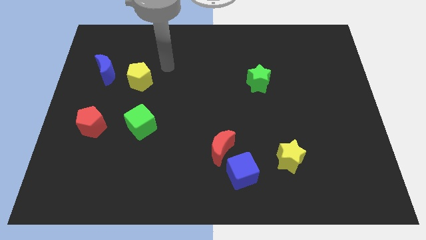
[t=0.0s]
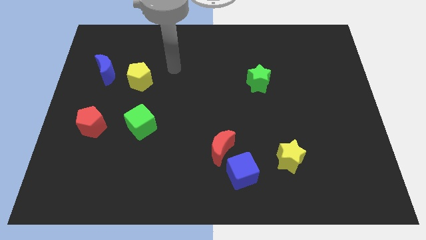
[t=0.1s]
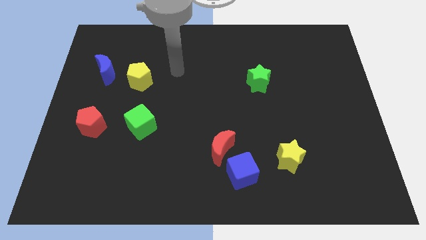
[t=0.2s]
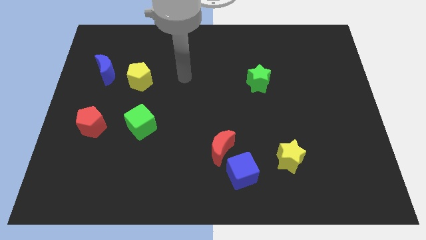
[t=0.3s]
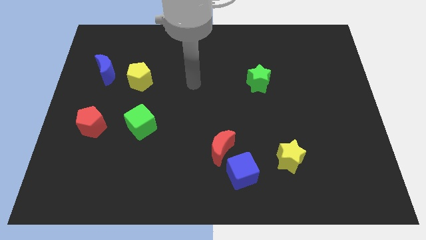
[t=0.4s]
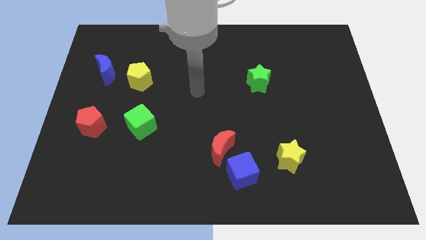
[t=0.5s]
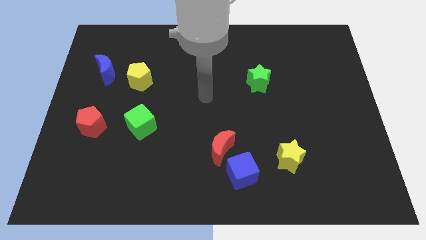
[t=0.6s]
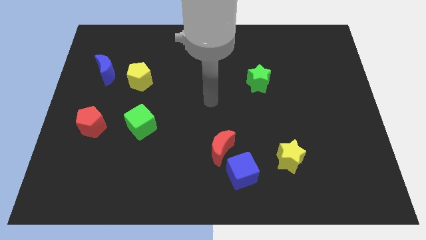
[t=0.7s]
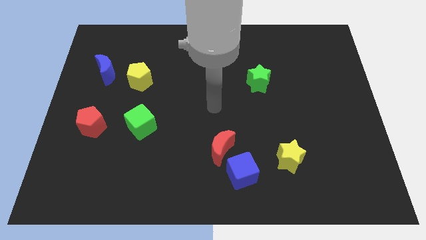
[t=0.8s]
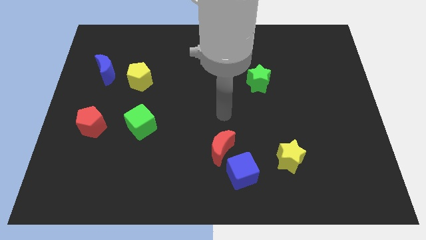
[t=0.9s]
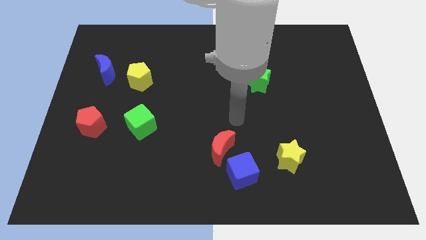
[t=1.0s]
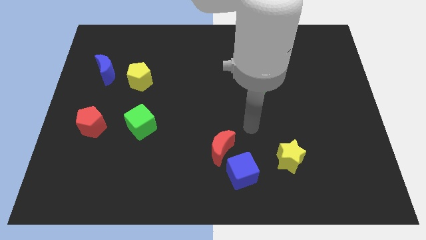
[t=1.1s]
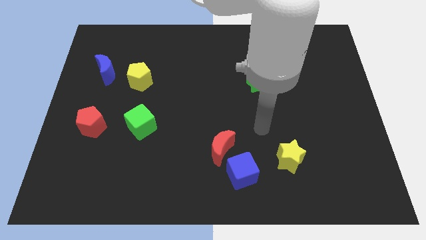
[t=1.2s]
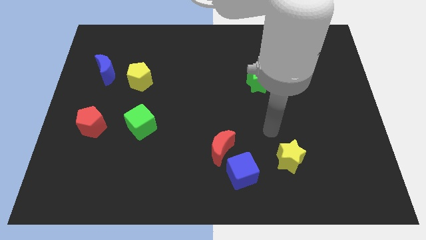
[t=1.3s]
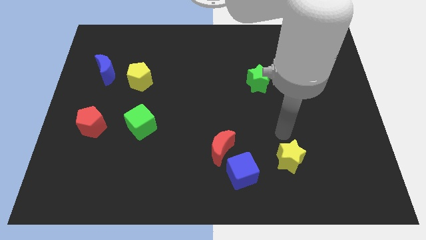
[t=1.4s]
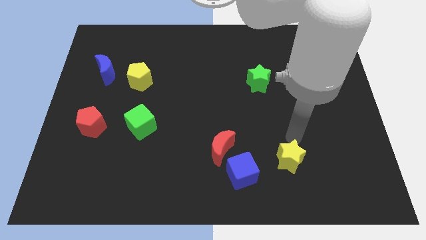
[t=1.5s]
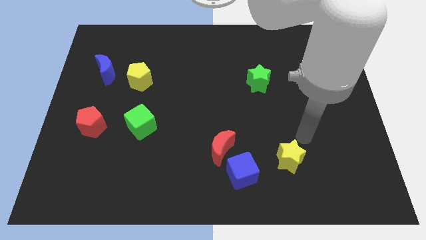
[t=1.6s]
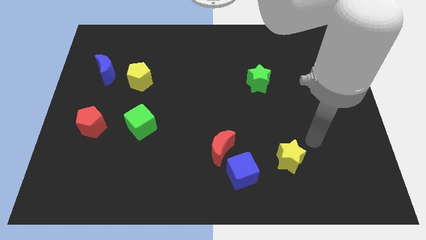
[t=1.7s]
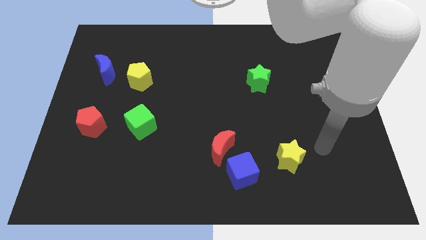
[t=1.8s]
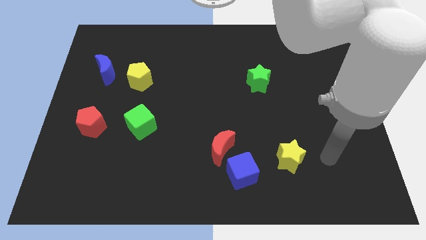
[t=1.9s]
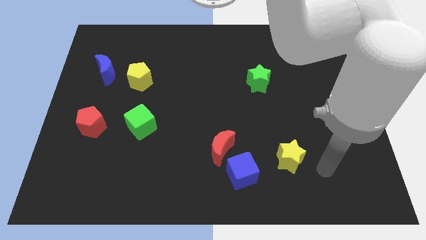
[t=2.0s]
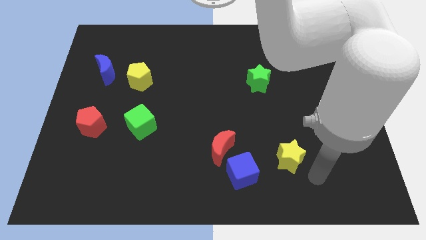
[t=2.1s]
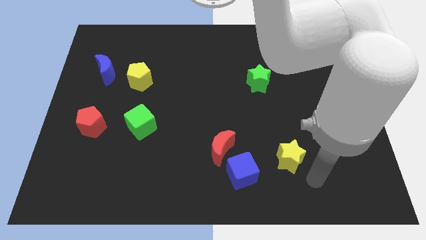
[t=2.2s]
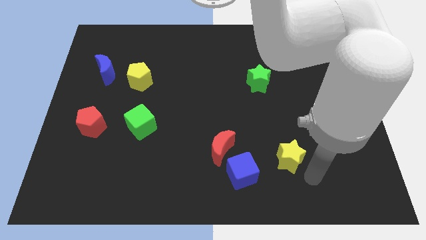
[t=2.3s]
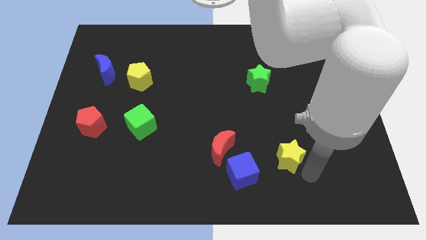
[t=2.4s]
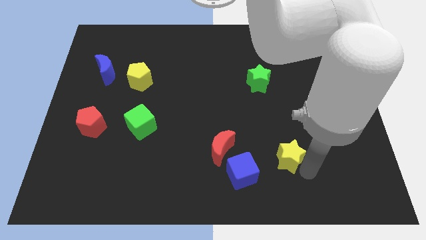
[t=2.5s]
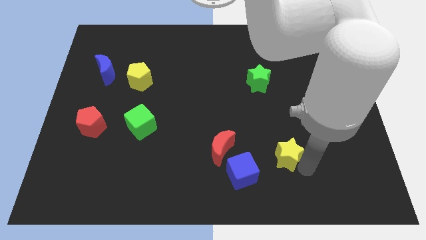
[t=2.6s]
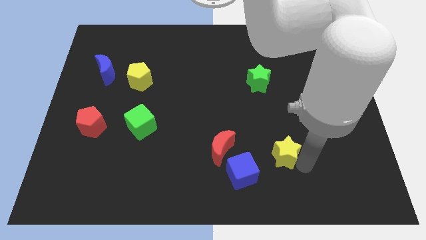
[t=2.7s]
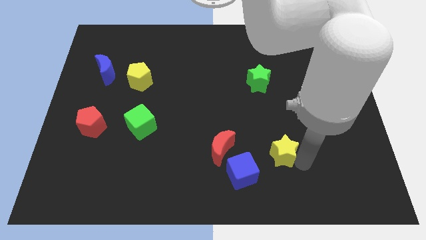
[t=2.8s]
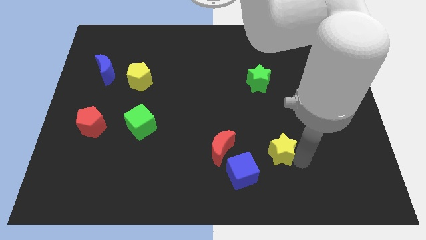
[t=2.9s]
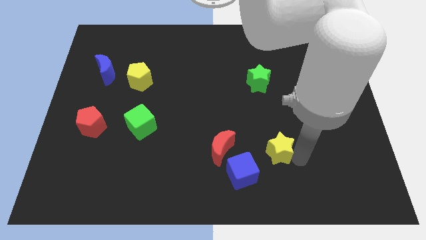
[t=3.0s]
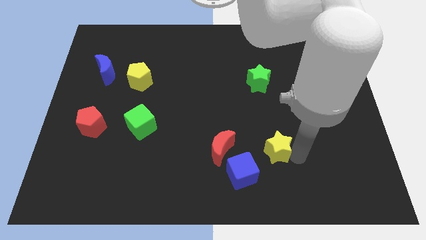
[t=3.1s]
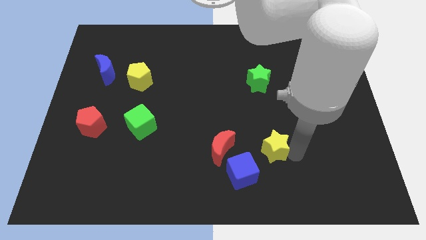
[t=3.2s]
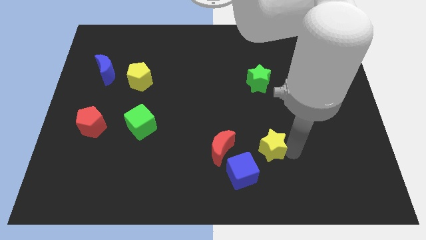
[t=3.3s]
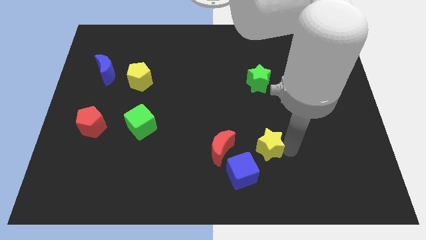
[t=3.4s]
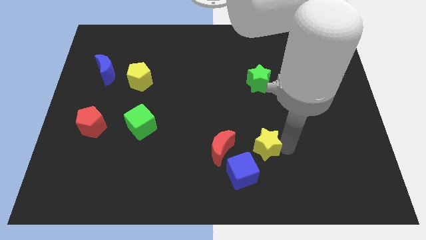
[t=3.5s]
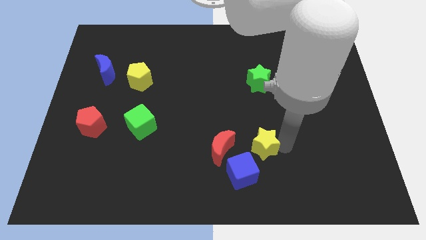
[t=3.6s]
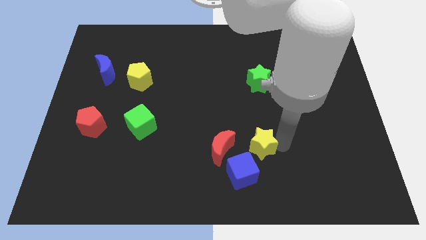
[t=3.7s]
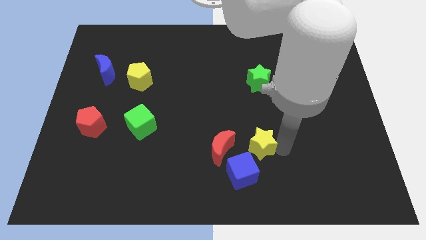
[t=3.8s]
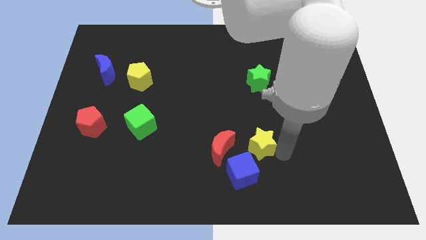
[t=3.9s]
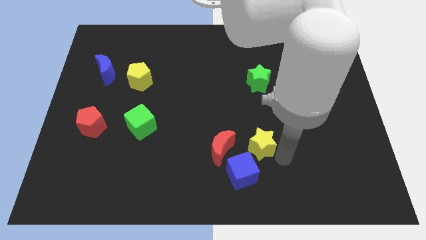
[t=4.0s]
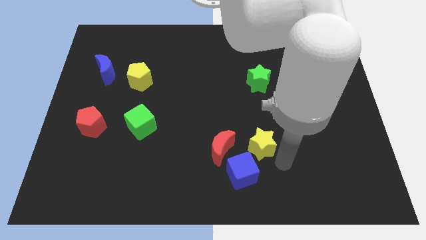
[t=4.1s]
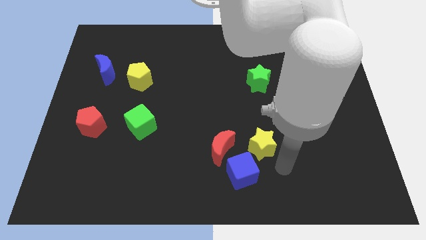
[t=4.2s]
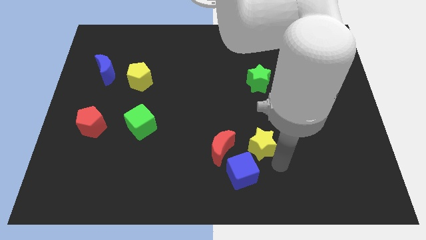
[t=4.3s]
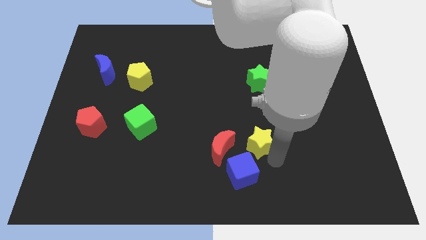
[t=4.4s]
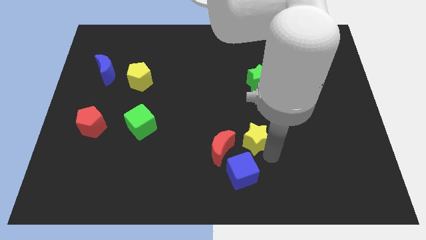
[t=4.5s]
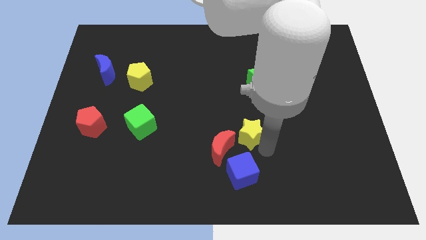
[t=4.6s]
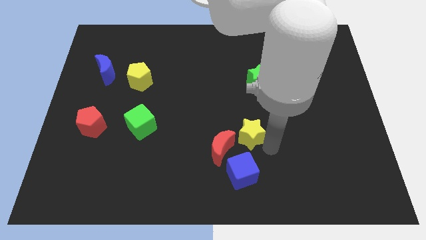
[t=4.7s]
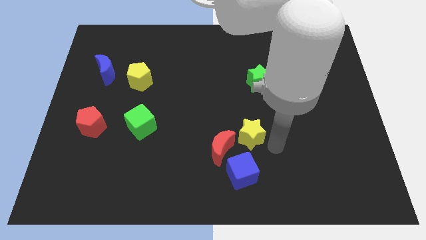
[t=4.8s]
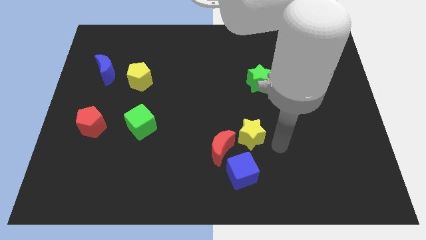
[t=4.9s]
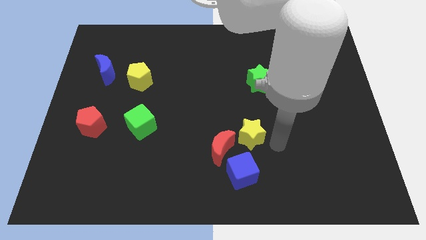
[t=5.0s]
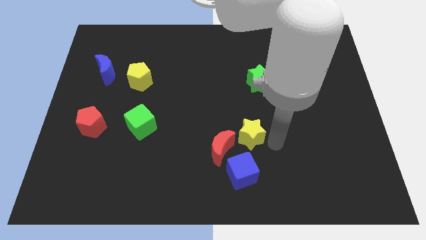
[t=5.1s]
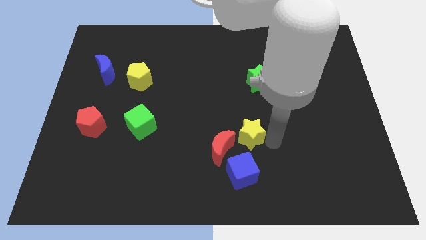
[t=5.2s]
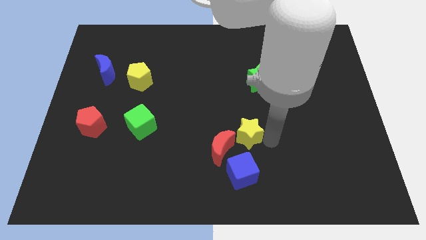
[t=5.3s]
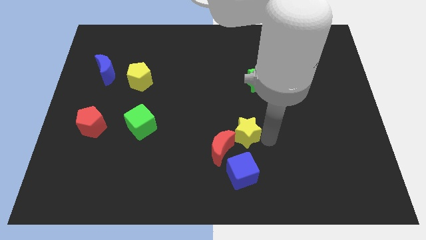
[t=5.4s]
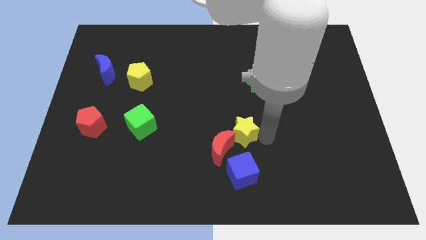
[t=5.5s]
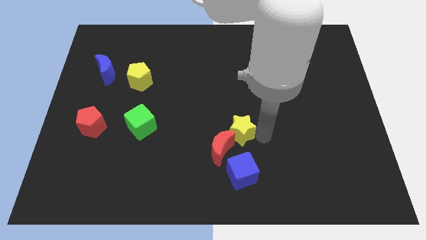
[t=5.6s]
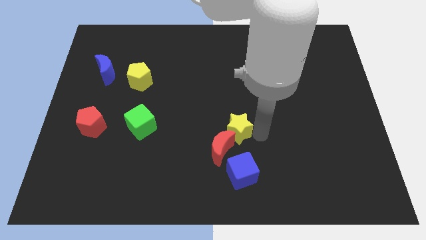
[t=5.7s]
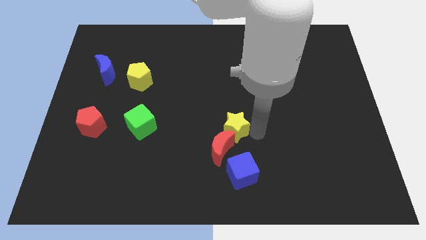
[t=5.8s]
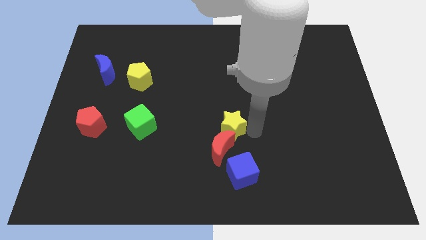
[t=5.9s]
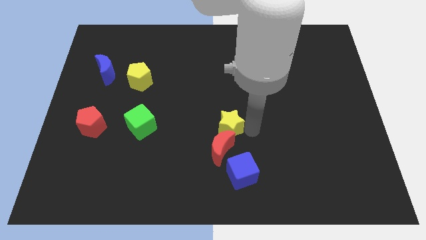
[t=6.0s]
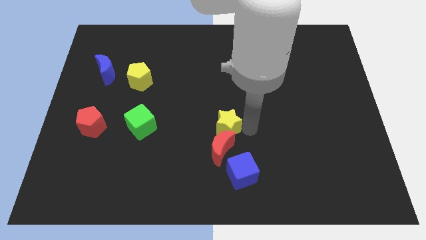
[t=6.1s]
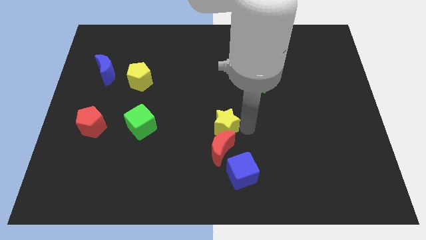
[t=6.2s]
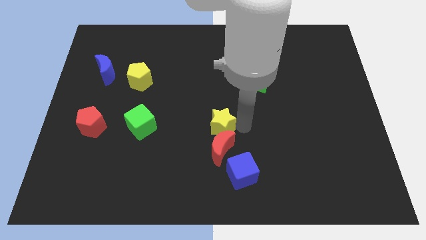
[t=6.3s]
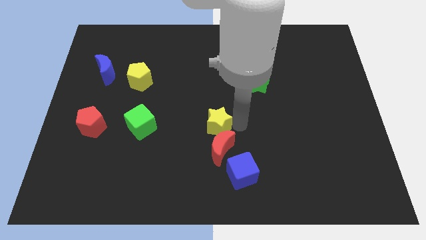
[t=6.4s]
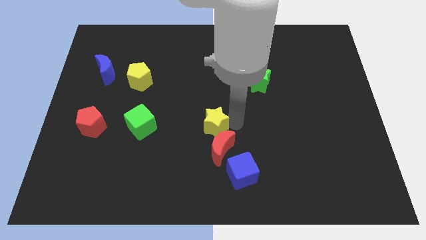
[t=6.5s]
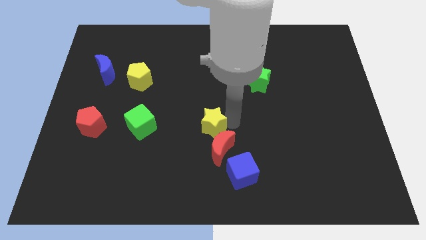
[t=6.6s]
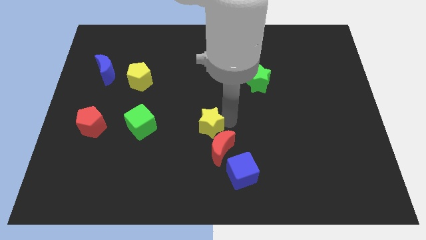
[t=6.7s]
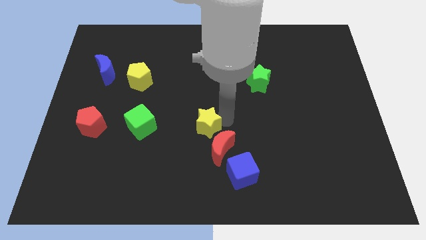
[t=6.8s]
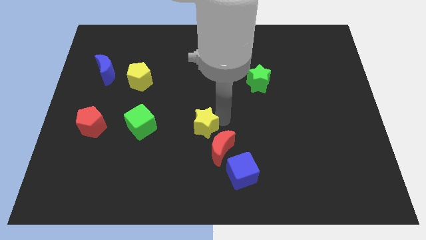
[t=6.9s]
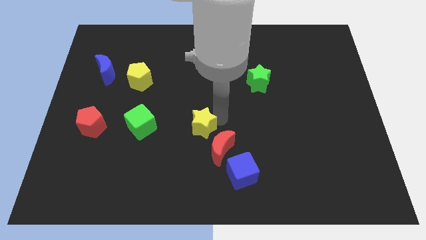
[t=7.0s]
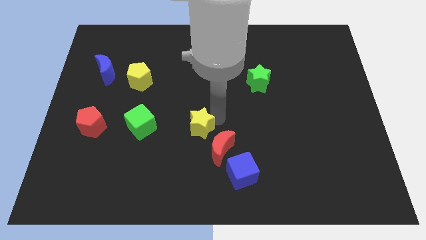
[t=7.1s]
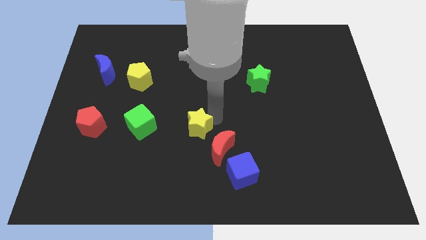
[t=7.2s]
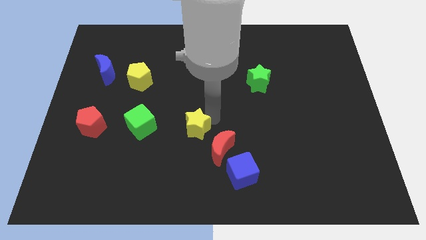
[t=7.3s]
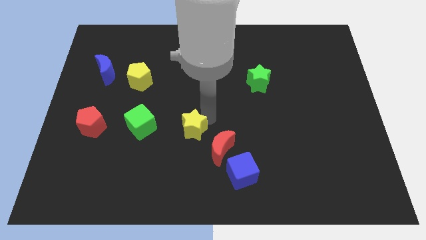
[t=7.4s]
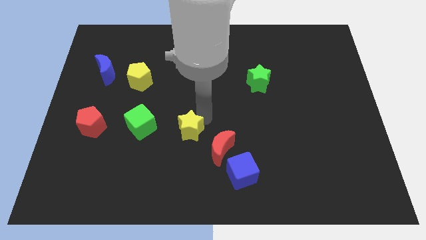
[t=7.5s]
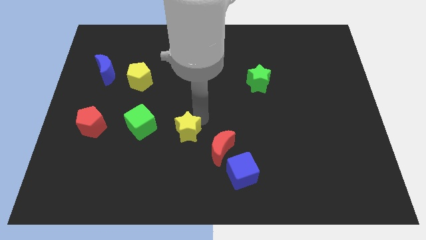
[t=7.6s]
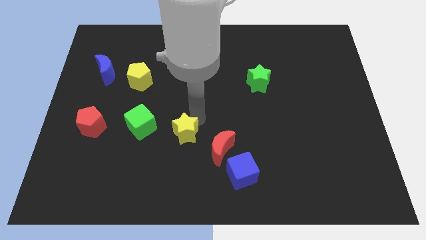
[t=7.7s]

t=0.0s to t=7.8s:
push the yellow star to the left

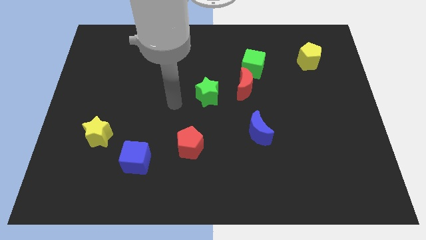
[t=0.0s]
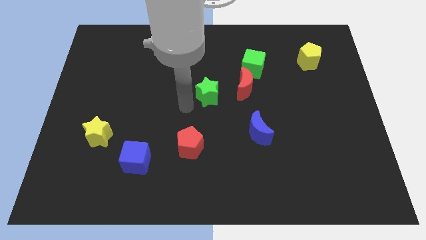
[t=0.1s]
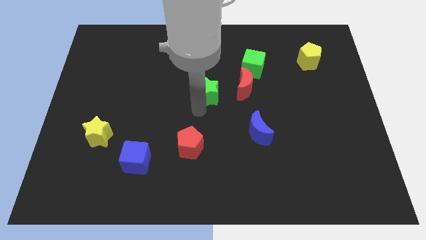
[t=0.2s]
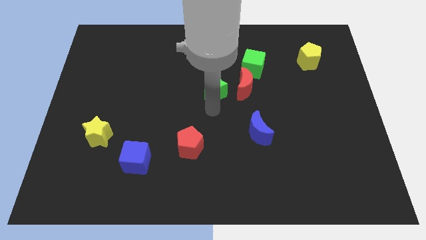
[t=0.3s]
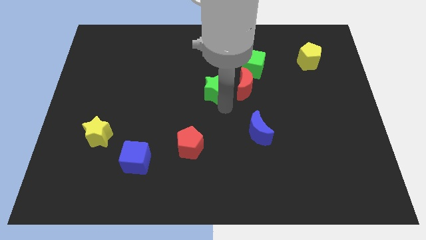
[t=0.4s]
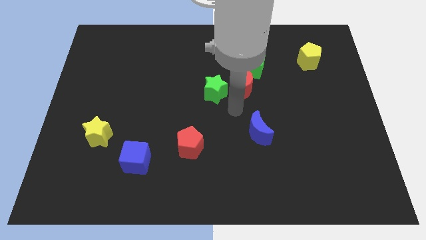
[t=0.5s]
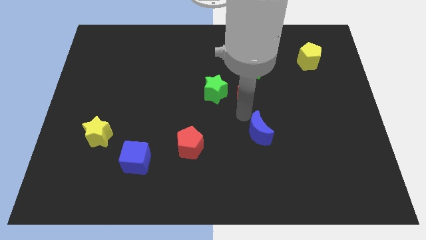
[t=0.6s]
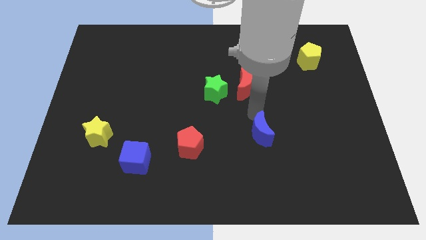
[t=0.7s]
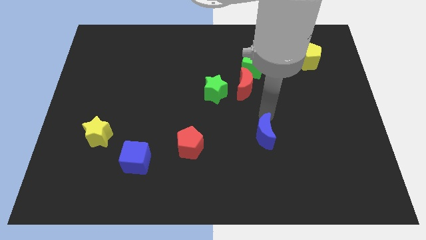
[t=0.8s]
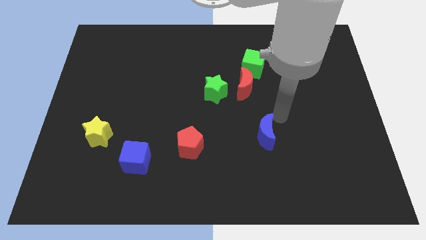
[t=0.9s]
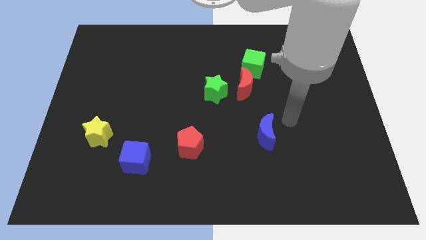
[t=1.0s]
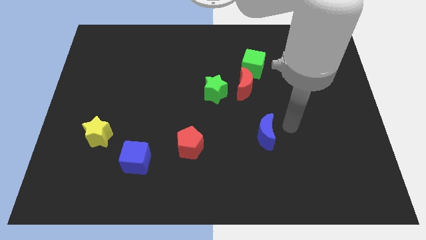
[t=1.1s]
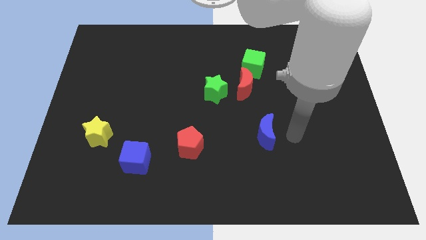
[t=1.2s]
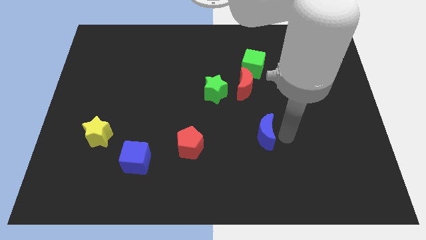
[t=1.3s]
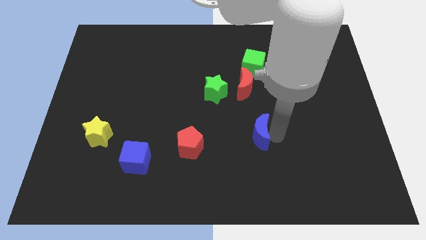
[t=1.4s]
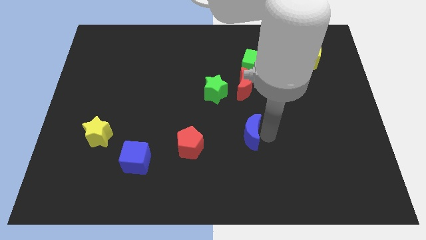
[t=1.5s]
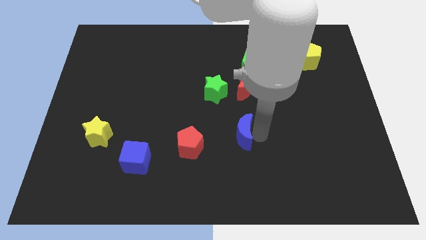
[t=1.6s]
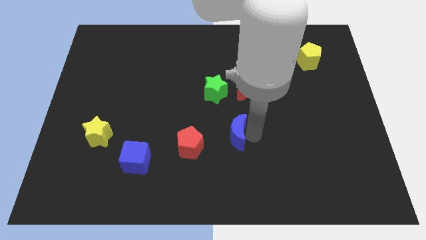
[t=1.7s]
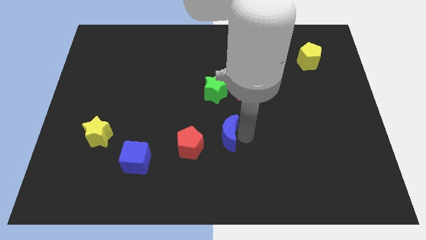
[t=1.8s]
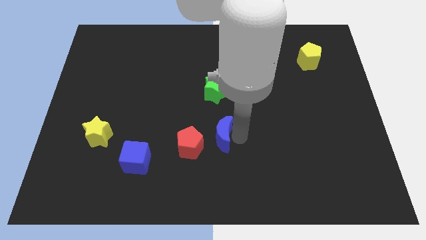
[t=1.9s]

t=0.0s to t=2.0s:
slide the blue moon somewhat left
